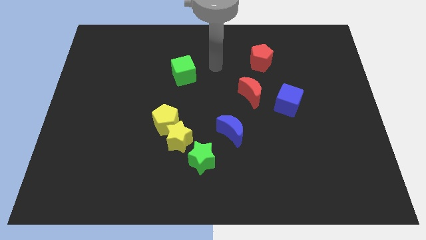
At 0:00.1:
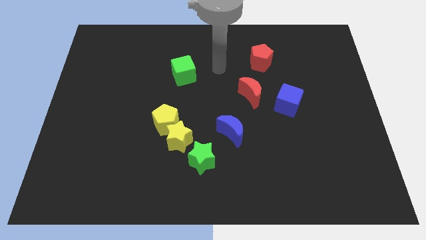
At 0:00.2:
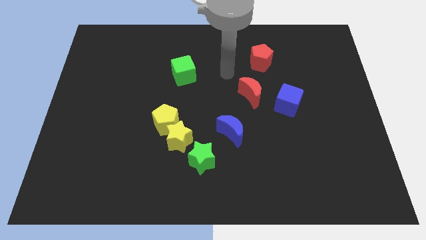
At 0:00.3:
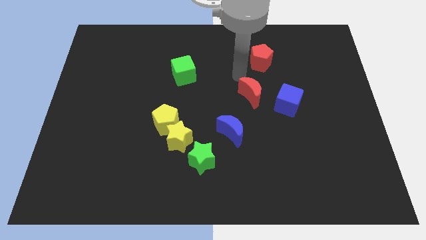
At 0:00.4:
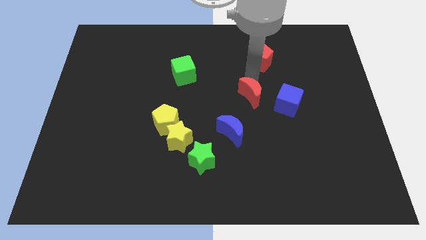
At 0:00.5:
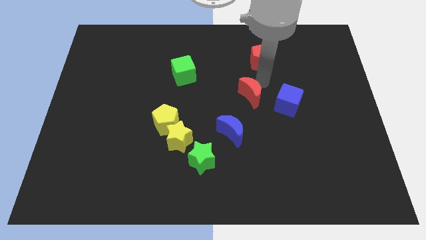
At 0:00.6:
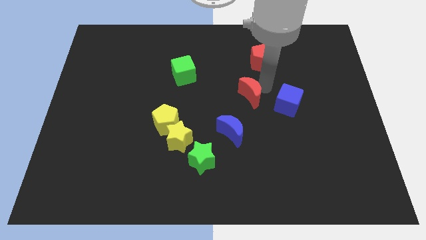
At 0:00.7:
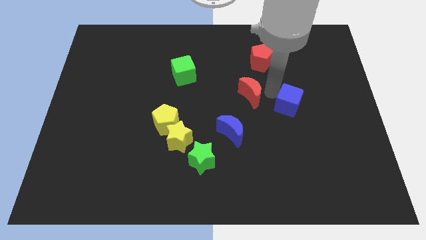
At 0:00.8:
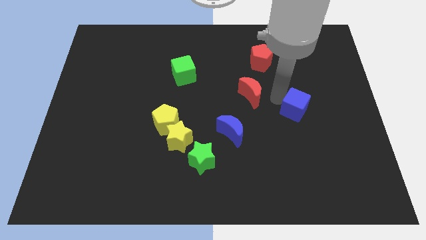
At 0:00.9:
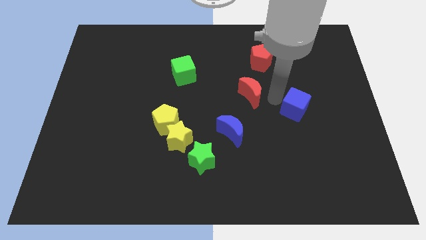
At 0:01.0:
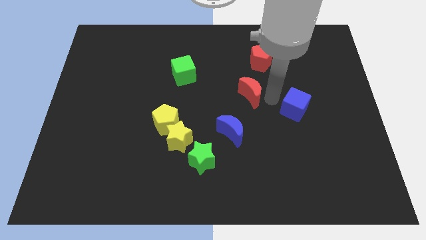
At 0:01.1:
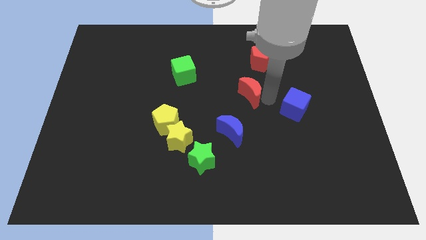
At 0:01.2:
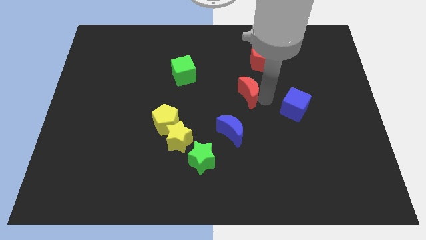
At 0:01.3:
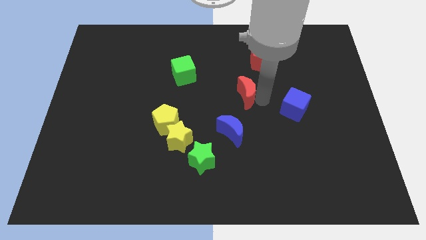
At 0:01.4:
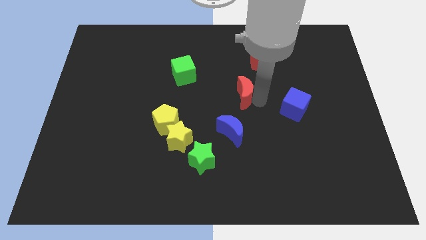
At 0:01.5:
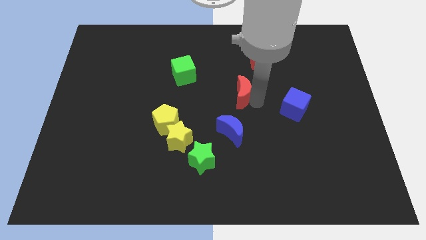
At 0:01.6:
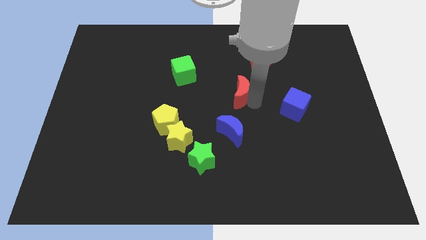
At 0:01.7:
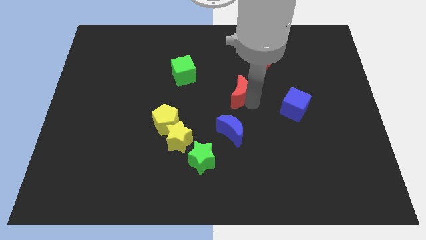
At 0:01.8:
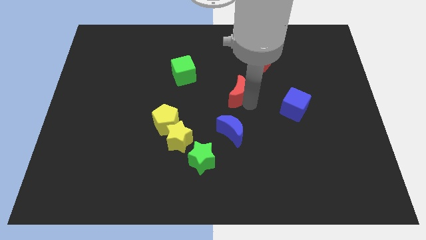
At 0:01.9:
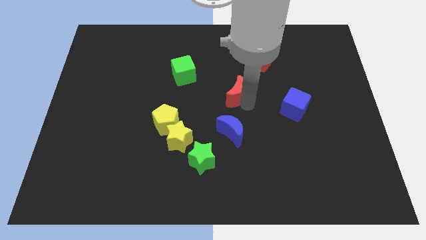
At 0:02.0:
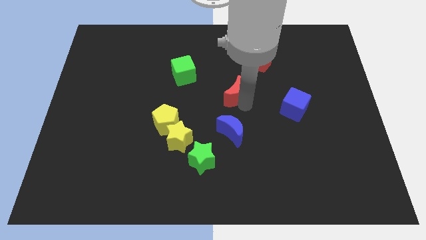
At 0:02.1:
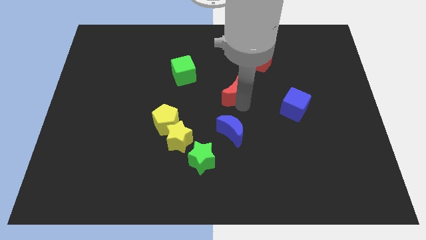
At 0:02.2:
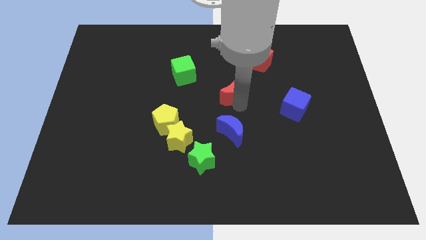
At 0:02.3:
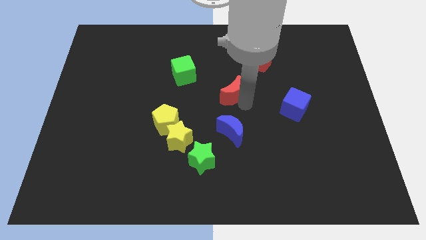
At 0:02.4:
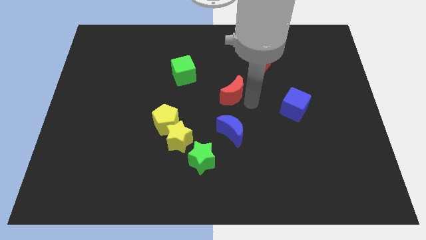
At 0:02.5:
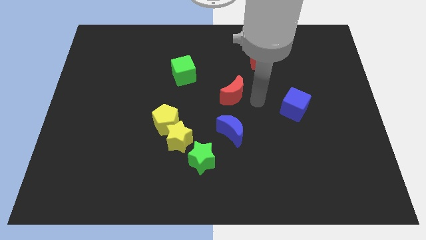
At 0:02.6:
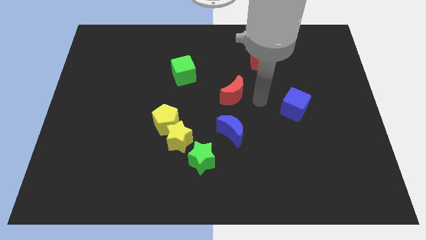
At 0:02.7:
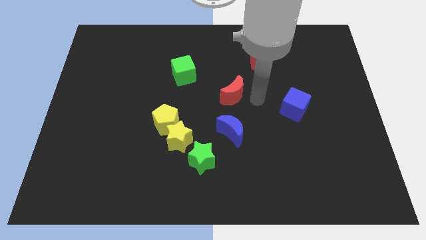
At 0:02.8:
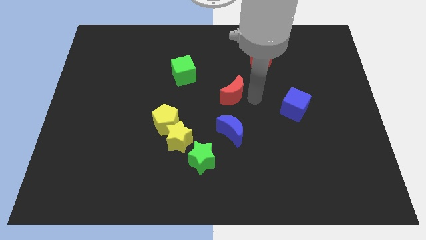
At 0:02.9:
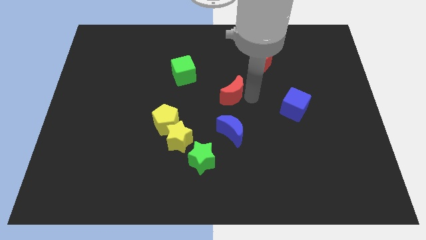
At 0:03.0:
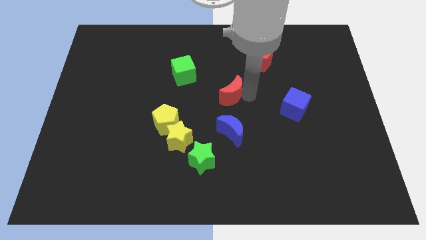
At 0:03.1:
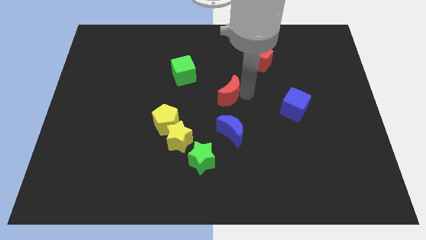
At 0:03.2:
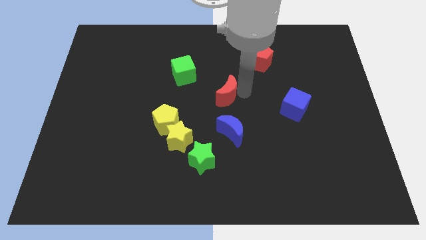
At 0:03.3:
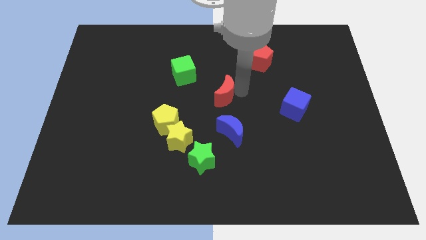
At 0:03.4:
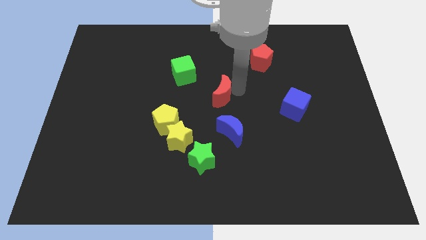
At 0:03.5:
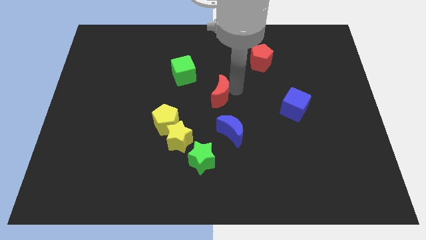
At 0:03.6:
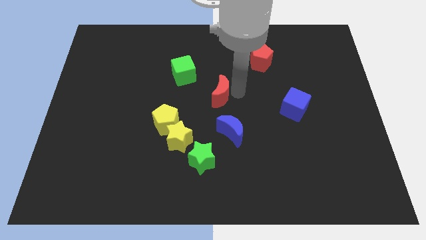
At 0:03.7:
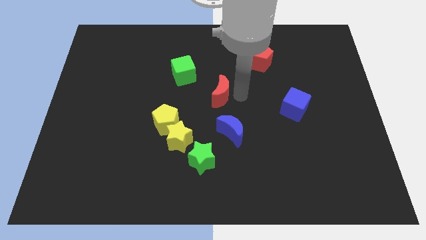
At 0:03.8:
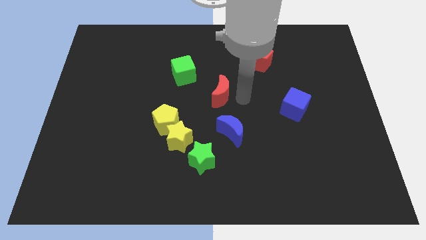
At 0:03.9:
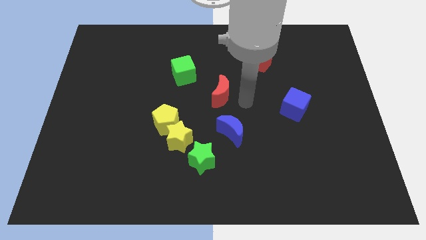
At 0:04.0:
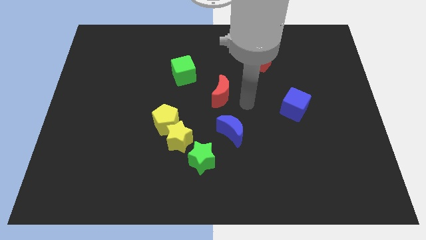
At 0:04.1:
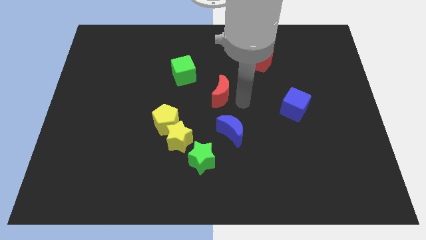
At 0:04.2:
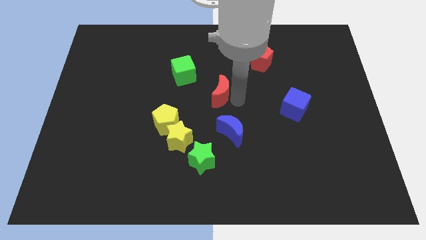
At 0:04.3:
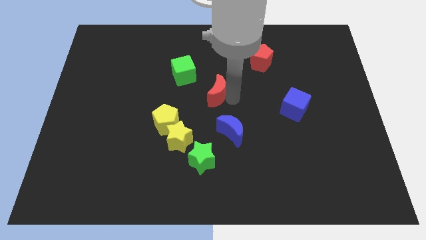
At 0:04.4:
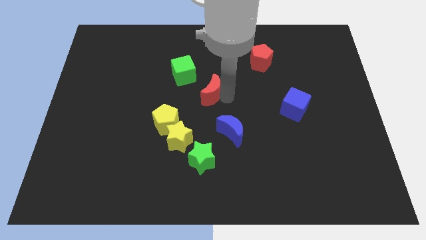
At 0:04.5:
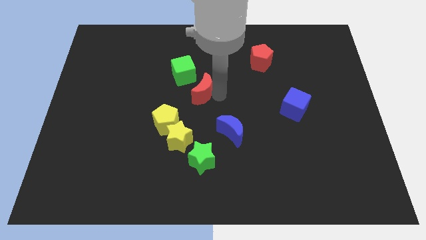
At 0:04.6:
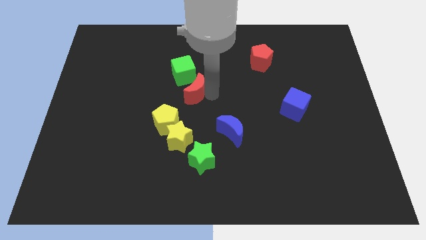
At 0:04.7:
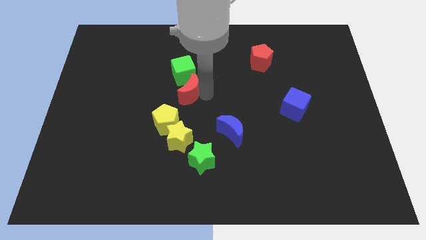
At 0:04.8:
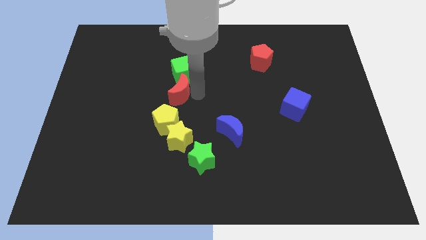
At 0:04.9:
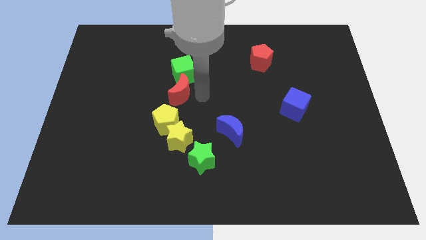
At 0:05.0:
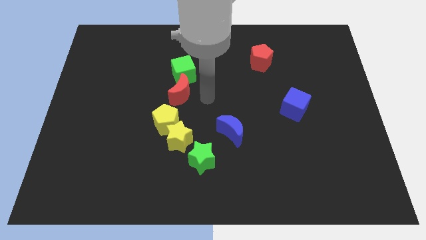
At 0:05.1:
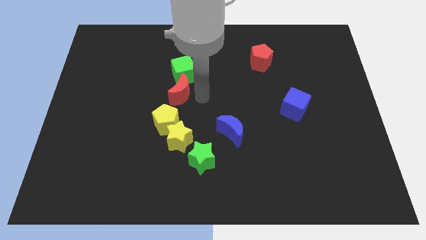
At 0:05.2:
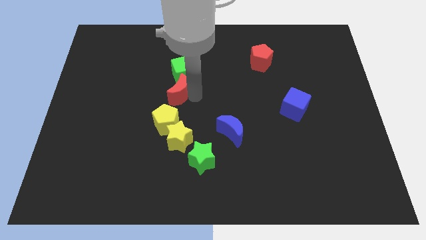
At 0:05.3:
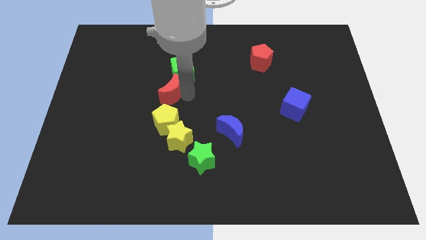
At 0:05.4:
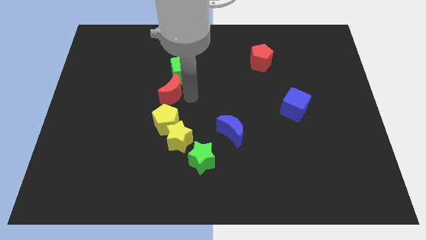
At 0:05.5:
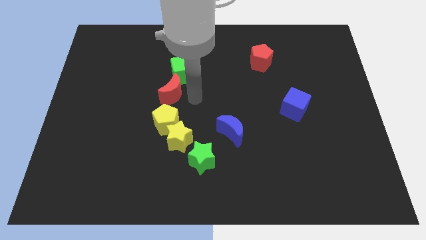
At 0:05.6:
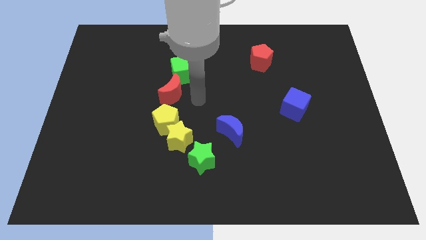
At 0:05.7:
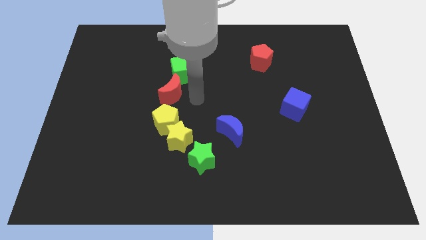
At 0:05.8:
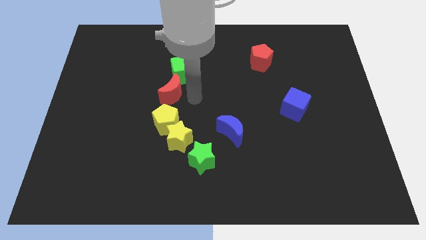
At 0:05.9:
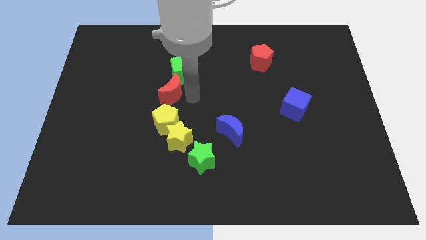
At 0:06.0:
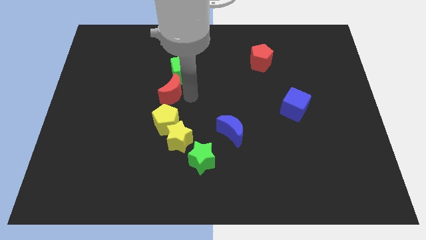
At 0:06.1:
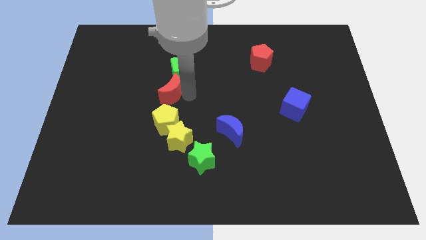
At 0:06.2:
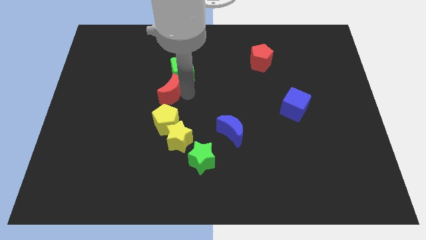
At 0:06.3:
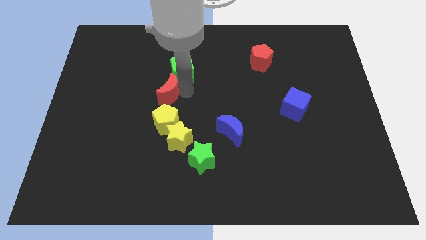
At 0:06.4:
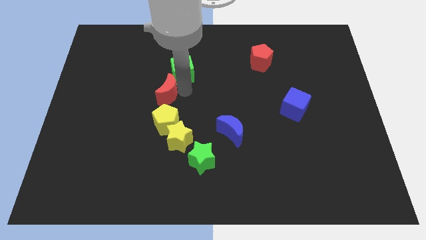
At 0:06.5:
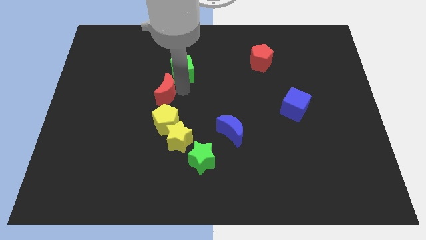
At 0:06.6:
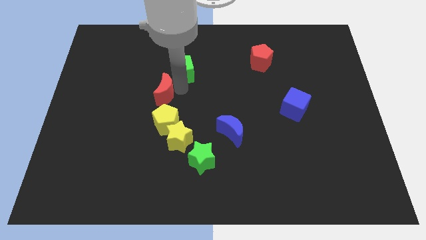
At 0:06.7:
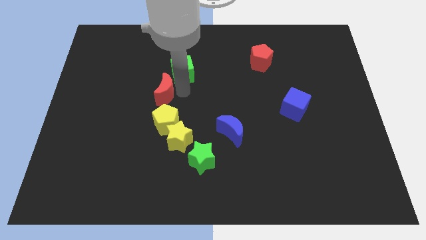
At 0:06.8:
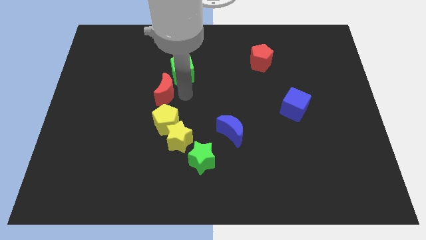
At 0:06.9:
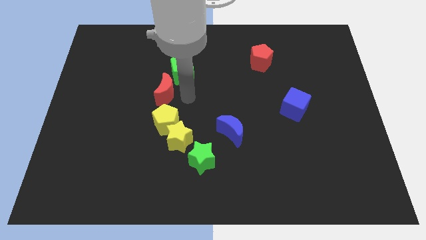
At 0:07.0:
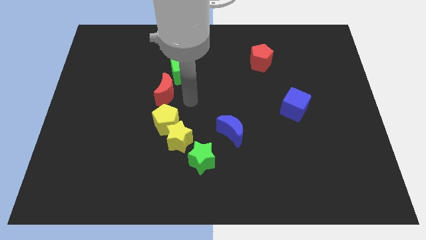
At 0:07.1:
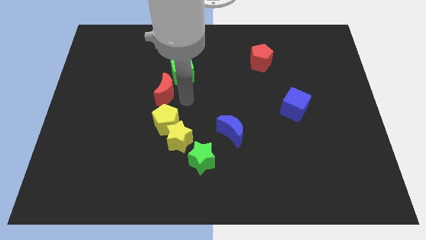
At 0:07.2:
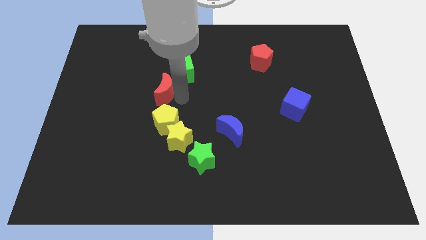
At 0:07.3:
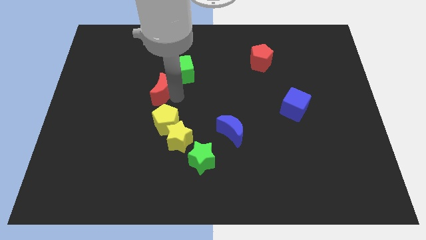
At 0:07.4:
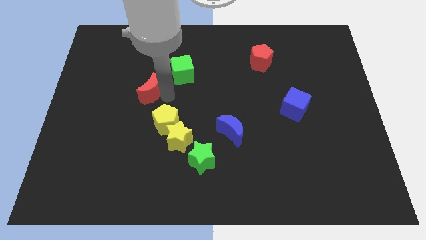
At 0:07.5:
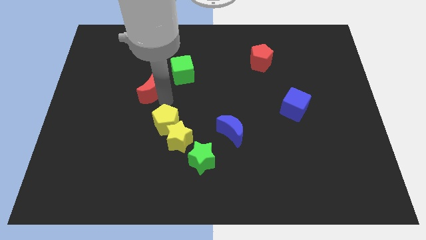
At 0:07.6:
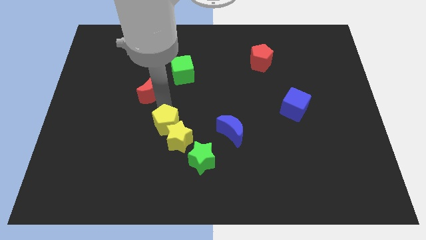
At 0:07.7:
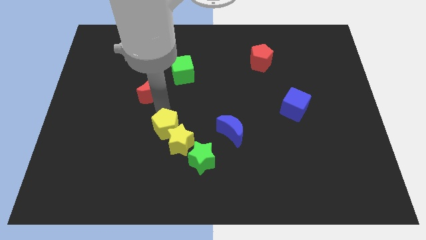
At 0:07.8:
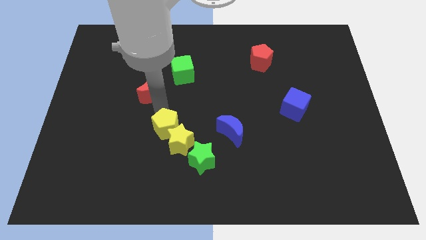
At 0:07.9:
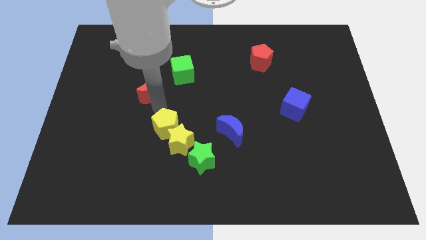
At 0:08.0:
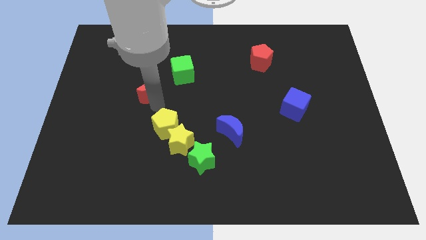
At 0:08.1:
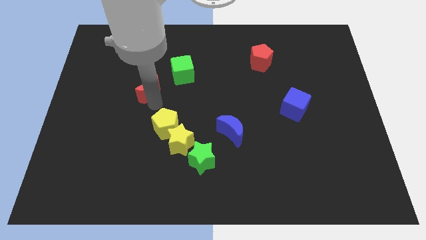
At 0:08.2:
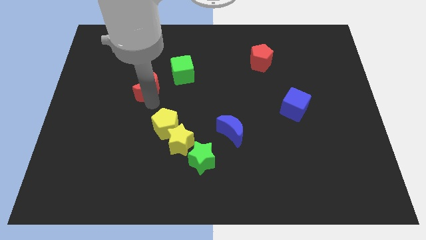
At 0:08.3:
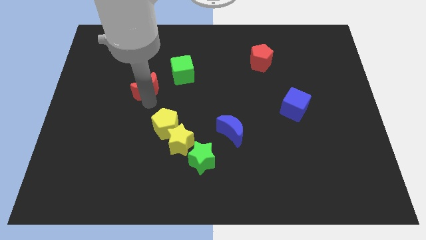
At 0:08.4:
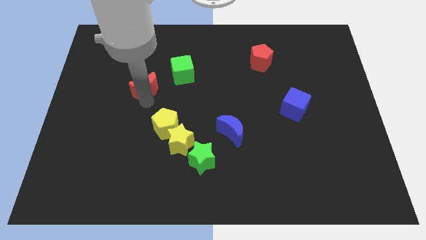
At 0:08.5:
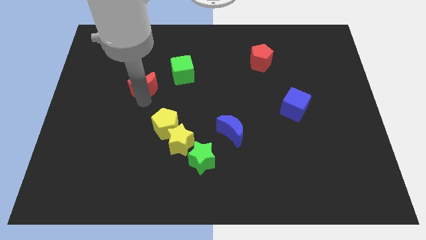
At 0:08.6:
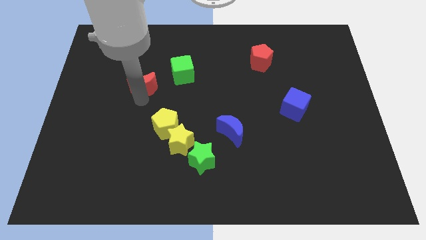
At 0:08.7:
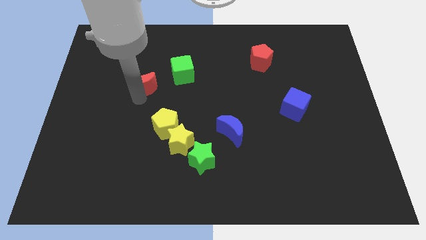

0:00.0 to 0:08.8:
push the red moon left of the green cube
